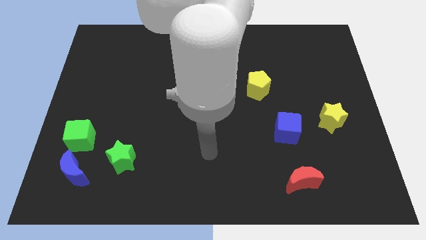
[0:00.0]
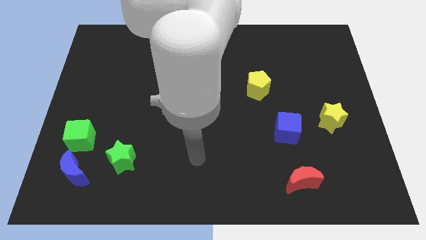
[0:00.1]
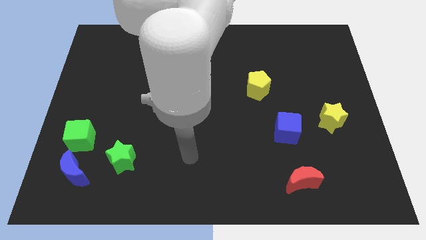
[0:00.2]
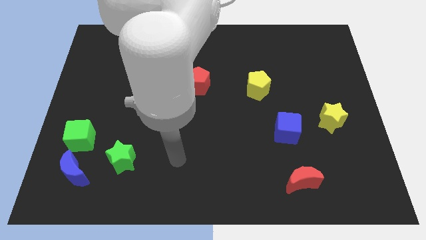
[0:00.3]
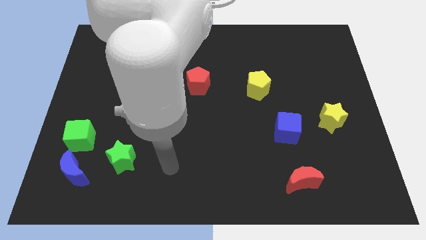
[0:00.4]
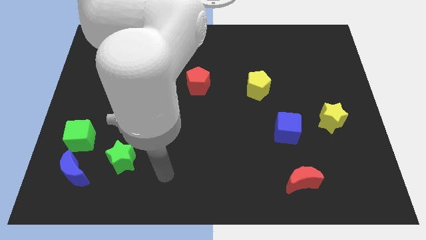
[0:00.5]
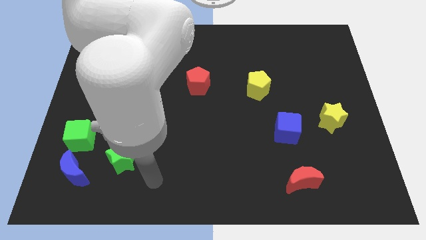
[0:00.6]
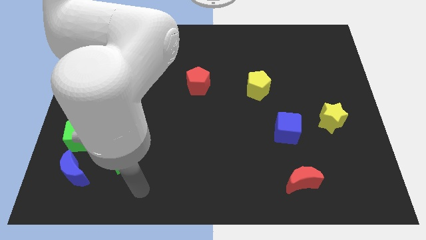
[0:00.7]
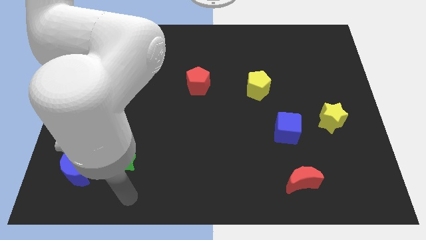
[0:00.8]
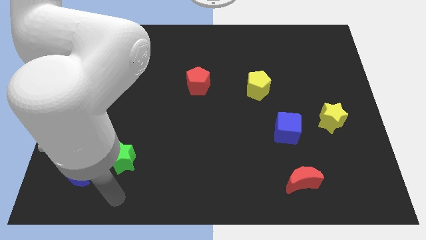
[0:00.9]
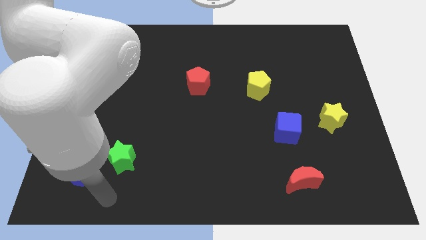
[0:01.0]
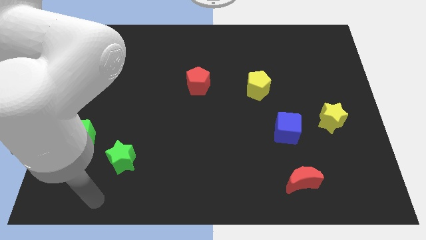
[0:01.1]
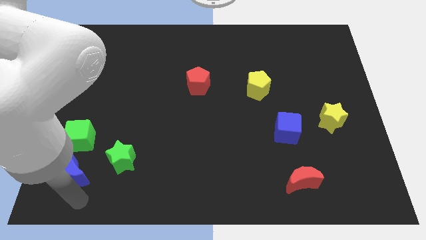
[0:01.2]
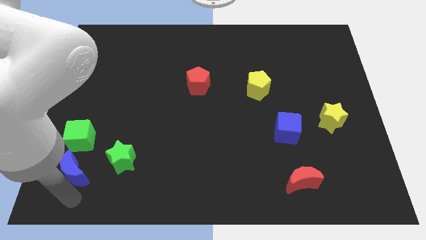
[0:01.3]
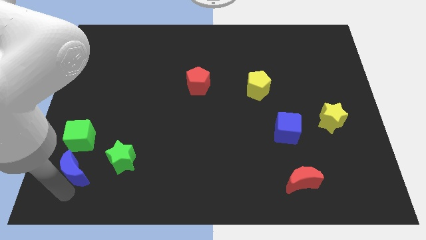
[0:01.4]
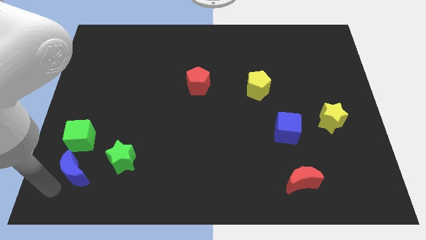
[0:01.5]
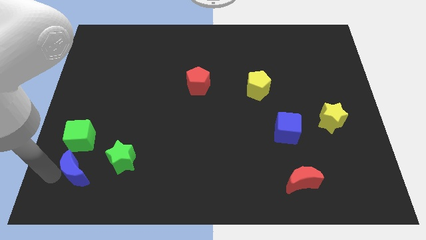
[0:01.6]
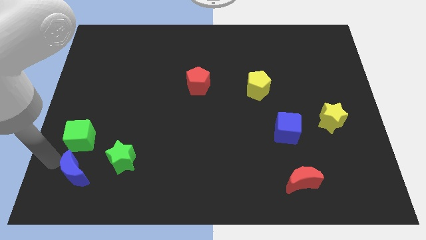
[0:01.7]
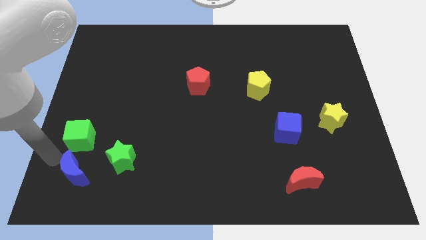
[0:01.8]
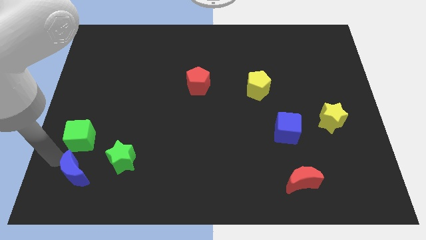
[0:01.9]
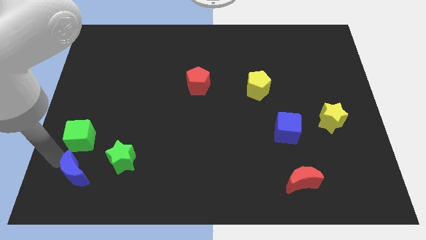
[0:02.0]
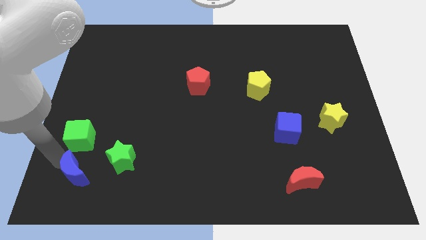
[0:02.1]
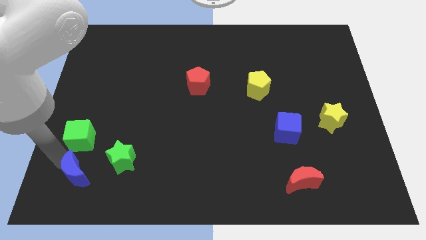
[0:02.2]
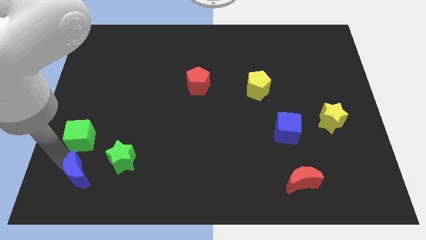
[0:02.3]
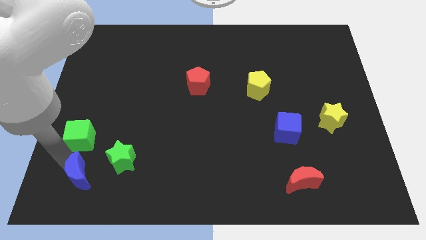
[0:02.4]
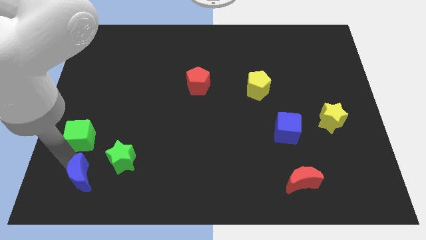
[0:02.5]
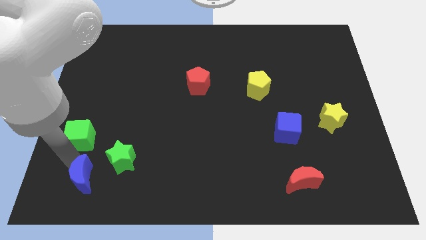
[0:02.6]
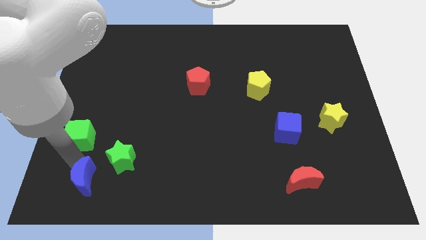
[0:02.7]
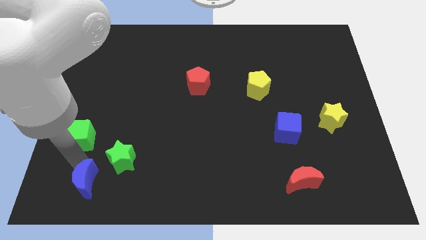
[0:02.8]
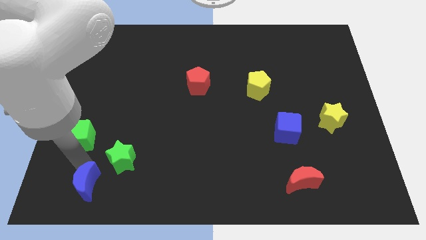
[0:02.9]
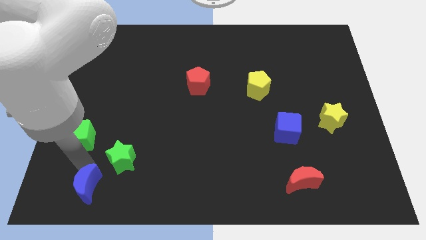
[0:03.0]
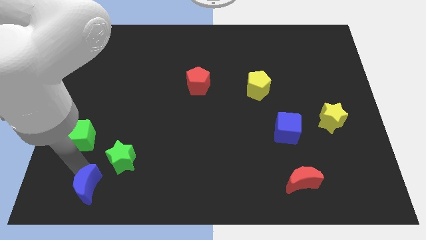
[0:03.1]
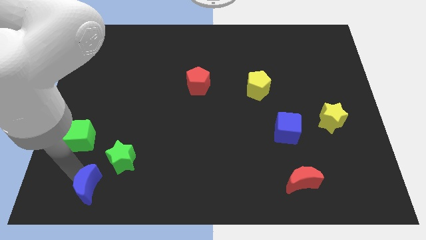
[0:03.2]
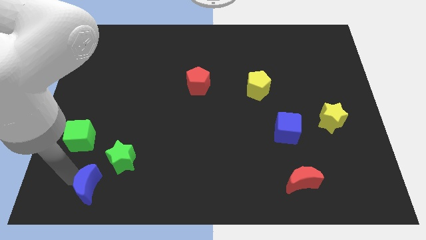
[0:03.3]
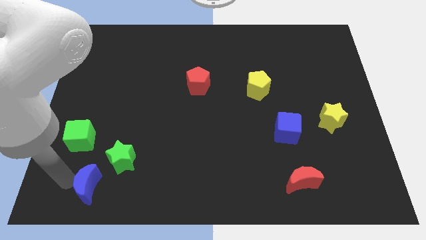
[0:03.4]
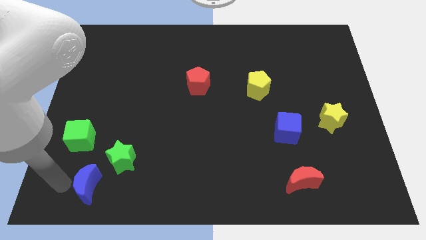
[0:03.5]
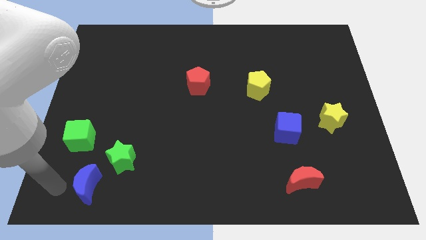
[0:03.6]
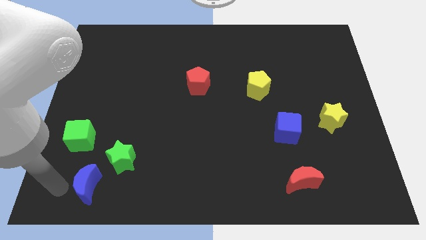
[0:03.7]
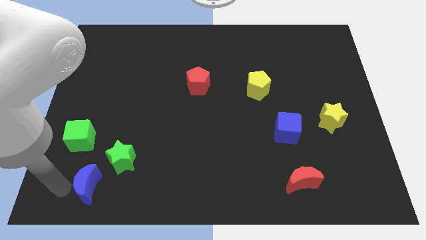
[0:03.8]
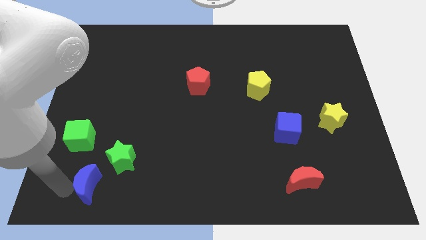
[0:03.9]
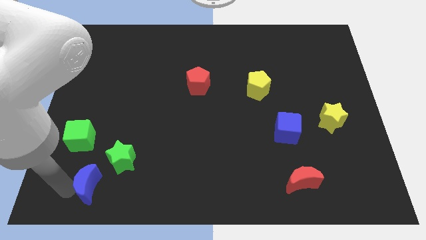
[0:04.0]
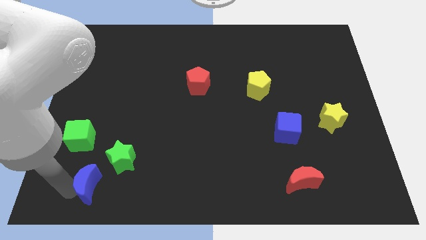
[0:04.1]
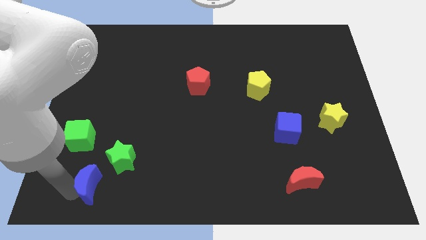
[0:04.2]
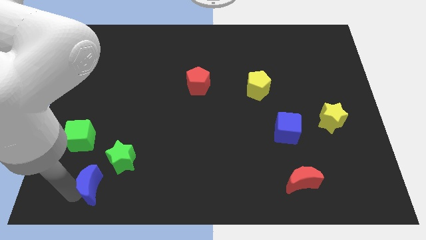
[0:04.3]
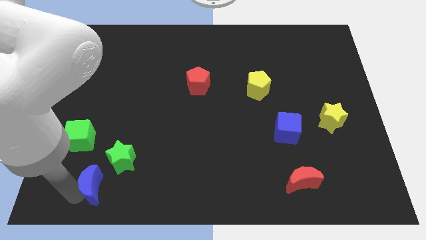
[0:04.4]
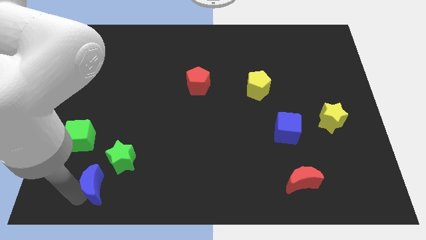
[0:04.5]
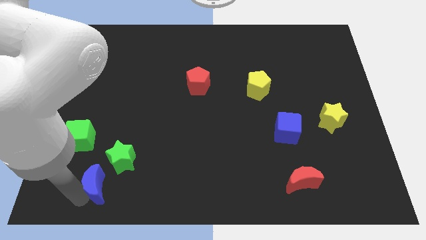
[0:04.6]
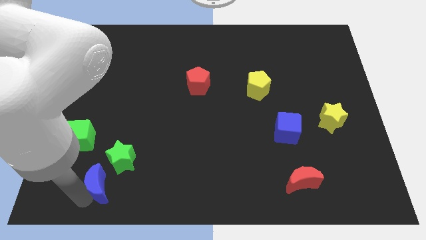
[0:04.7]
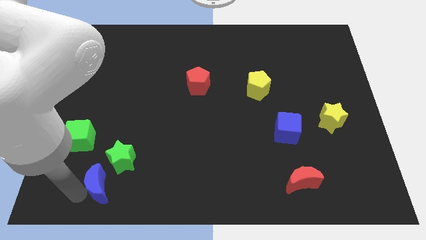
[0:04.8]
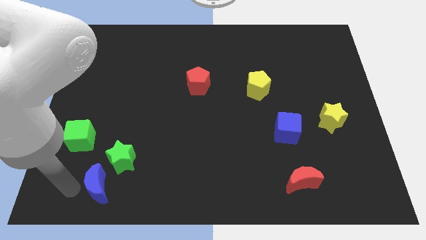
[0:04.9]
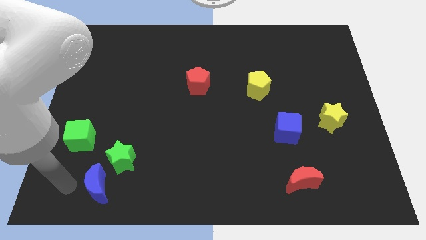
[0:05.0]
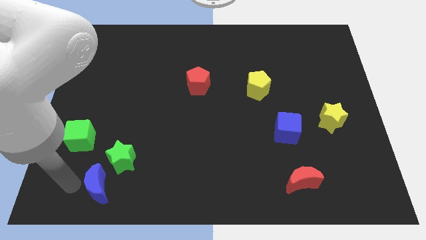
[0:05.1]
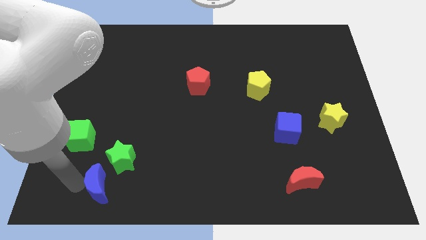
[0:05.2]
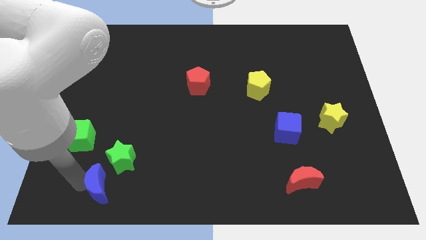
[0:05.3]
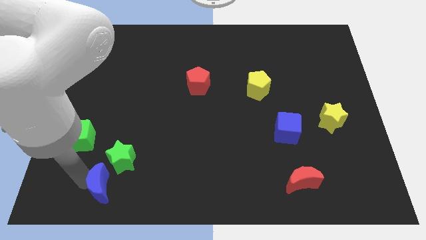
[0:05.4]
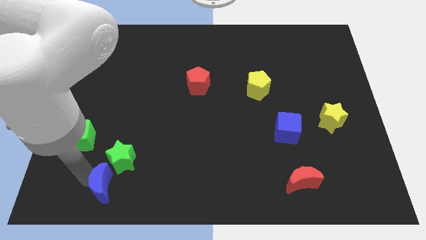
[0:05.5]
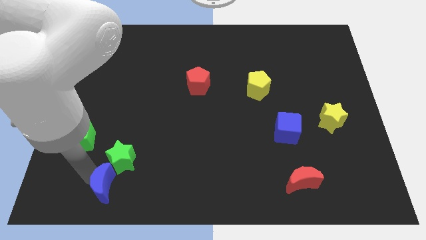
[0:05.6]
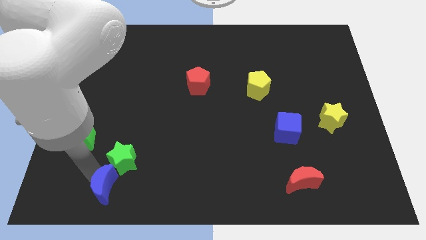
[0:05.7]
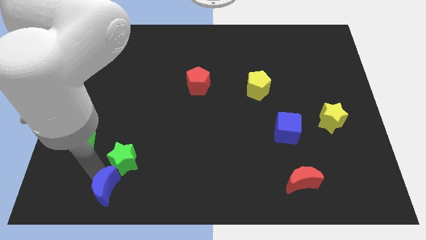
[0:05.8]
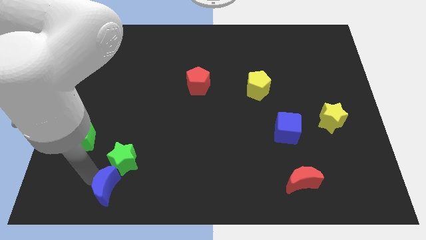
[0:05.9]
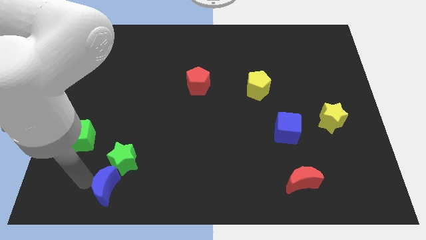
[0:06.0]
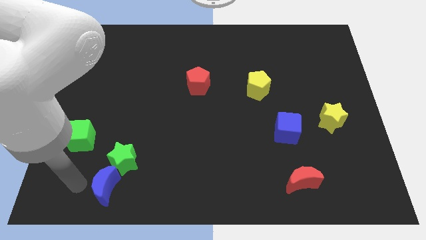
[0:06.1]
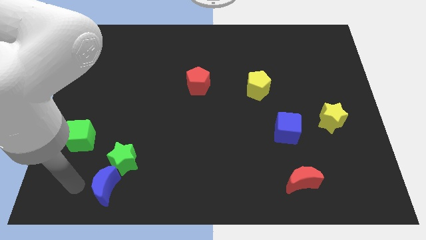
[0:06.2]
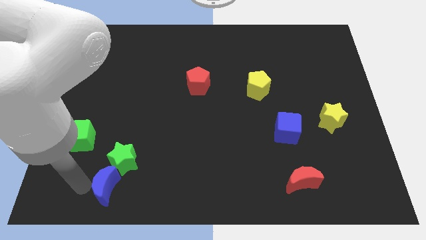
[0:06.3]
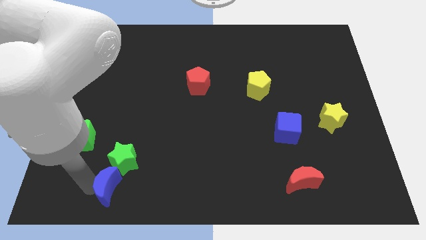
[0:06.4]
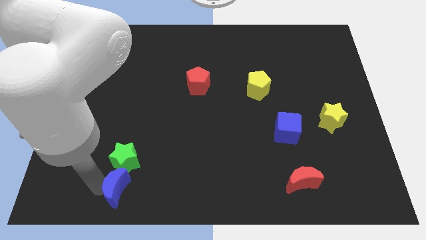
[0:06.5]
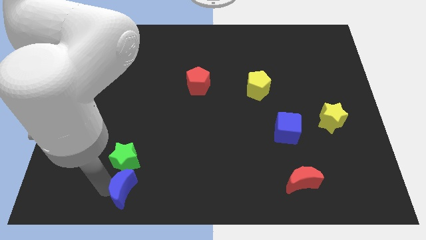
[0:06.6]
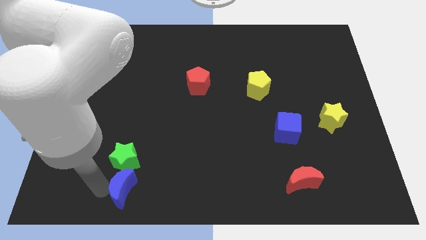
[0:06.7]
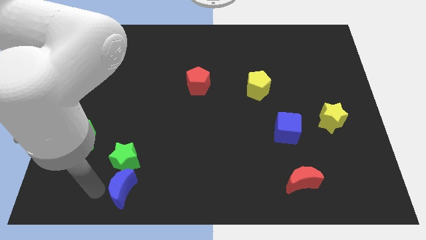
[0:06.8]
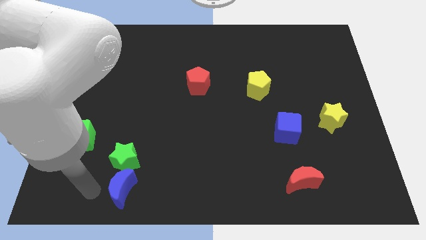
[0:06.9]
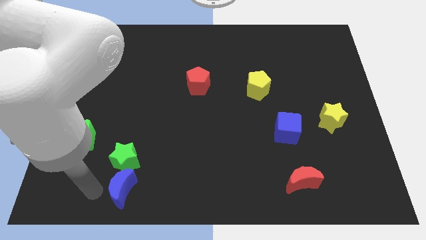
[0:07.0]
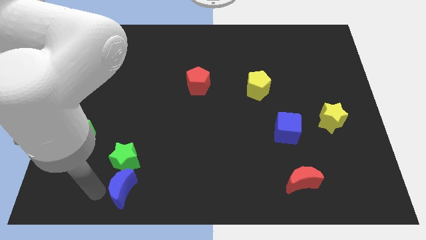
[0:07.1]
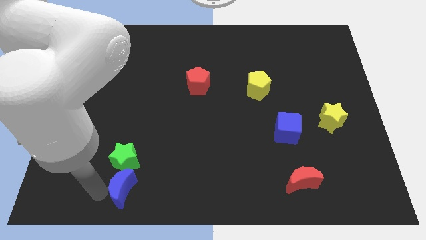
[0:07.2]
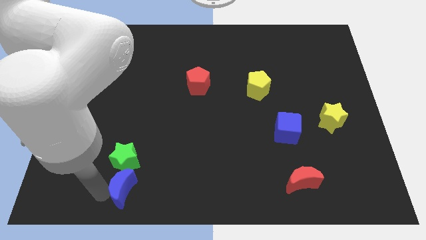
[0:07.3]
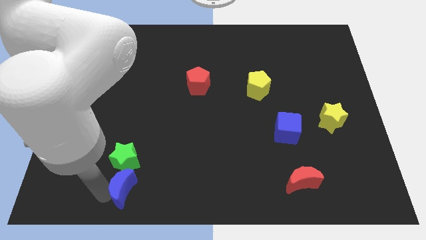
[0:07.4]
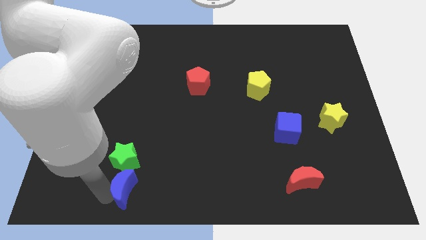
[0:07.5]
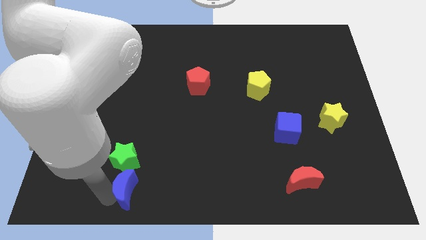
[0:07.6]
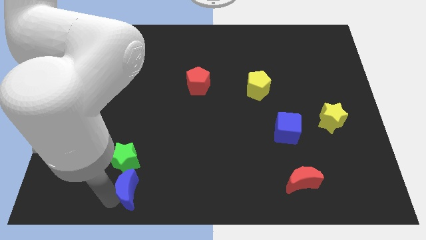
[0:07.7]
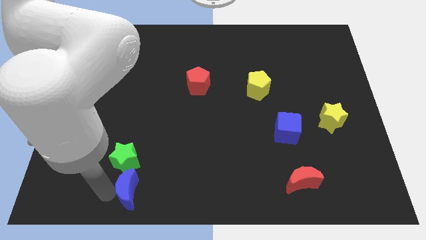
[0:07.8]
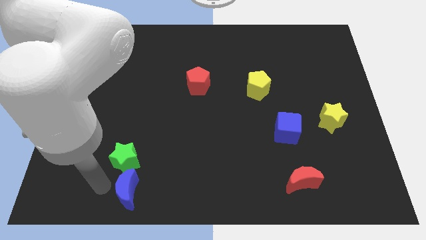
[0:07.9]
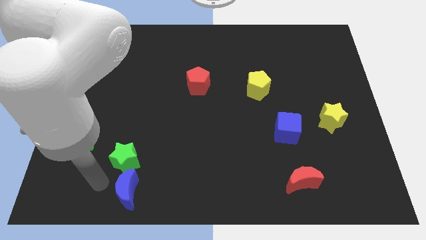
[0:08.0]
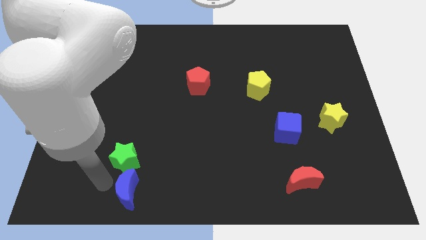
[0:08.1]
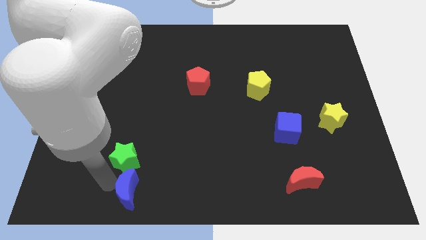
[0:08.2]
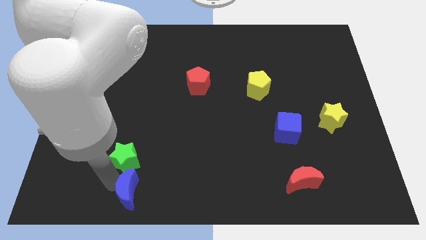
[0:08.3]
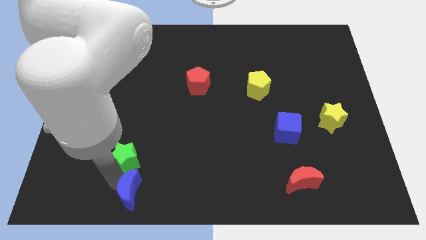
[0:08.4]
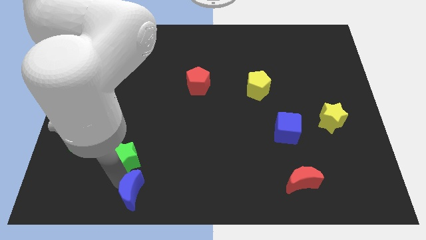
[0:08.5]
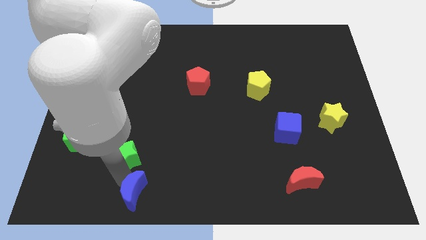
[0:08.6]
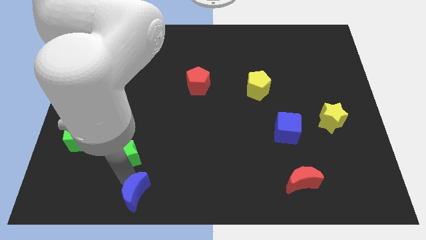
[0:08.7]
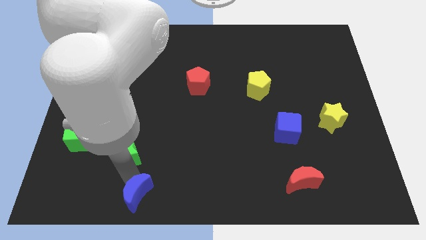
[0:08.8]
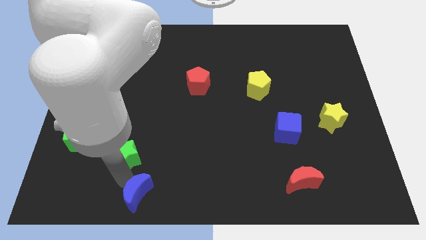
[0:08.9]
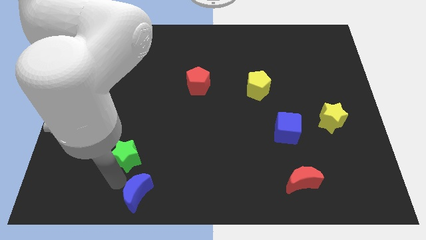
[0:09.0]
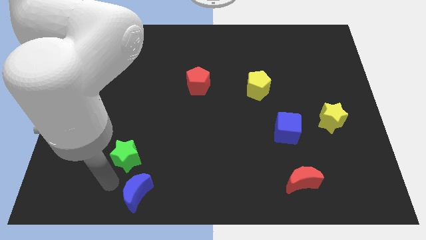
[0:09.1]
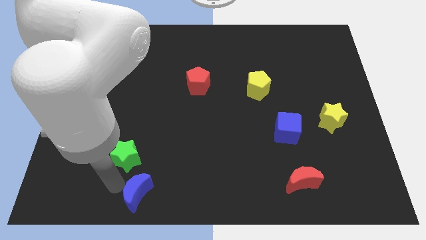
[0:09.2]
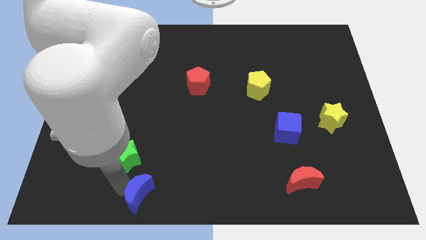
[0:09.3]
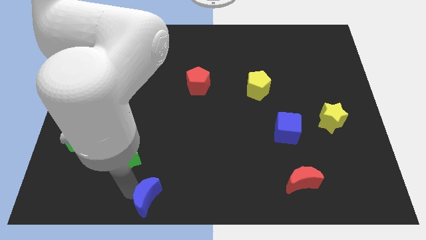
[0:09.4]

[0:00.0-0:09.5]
move the blue moon to the bottom side
